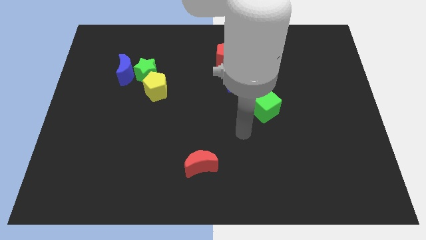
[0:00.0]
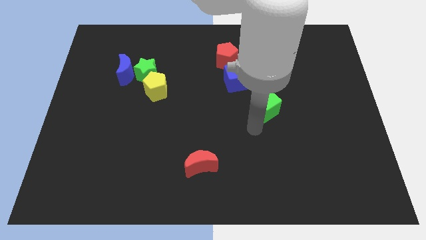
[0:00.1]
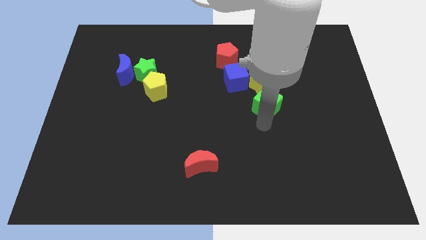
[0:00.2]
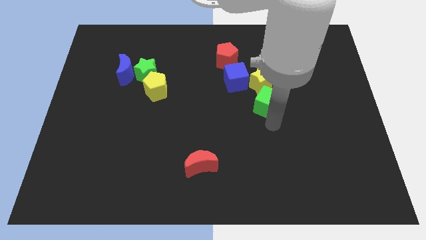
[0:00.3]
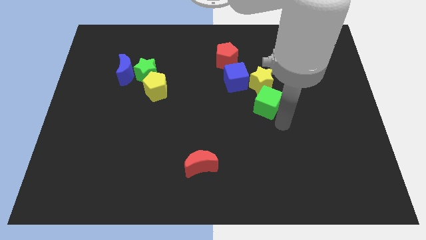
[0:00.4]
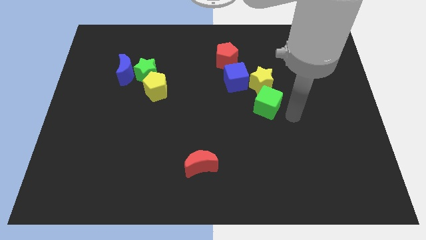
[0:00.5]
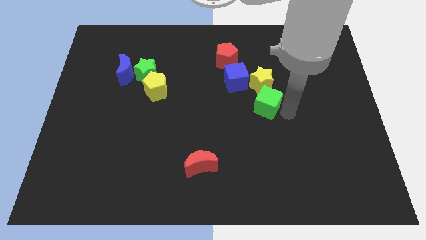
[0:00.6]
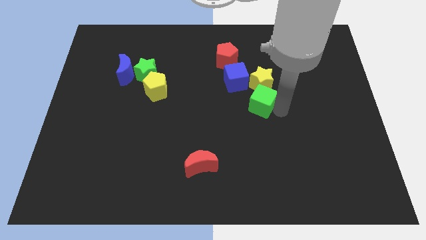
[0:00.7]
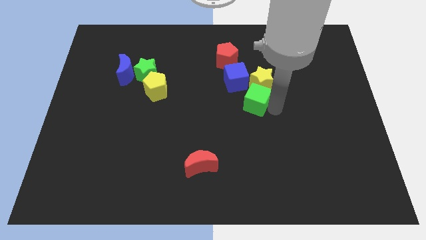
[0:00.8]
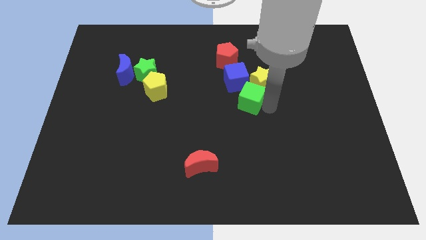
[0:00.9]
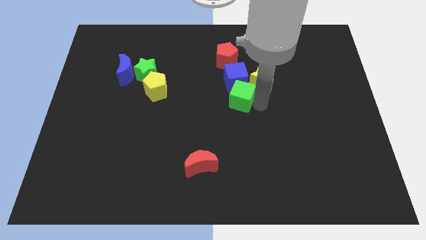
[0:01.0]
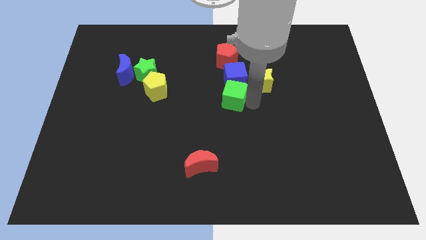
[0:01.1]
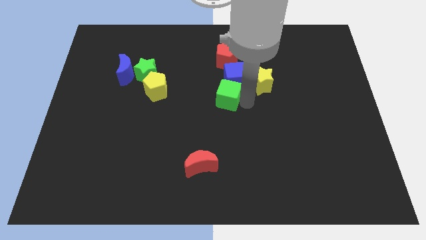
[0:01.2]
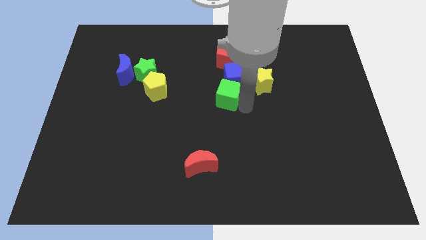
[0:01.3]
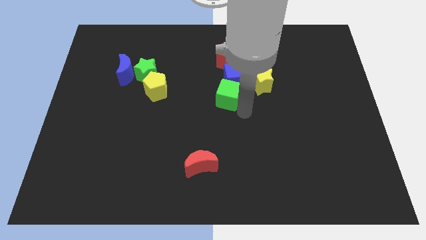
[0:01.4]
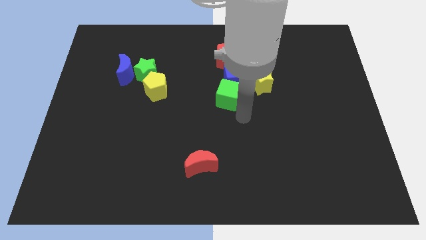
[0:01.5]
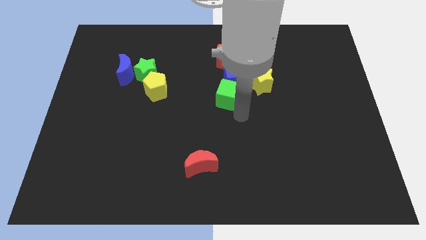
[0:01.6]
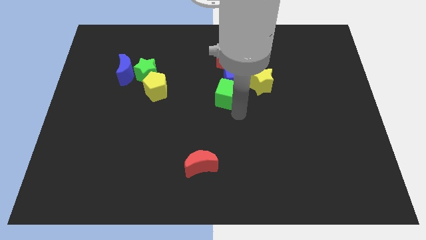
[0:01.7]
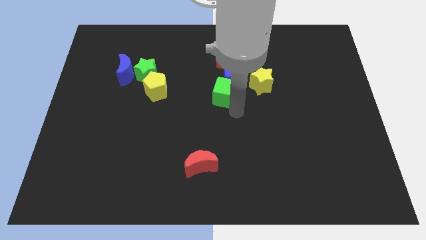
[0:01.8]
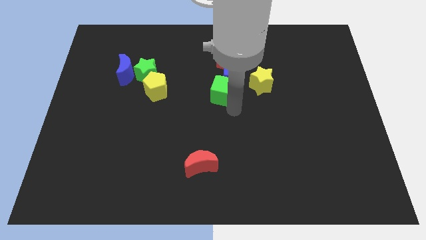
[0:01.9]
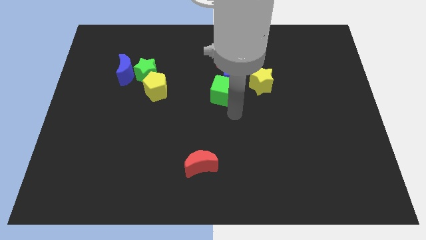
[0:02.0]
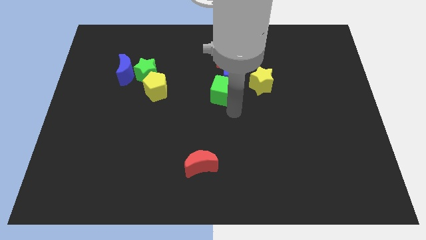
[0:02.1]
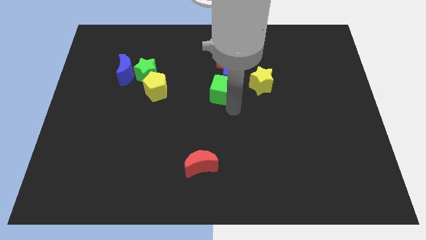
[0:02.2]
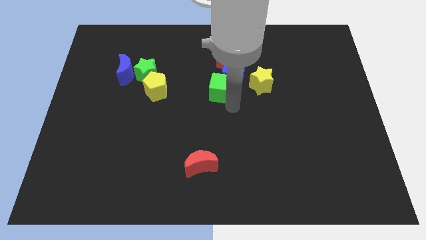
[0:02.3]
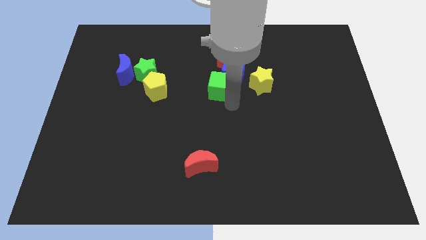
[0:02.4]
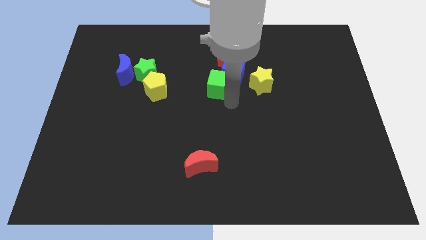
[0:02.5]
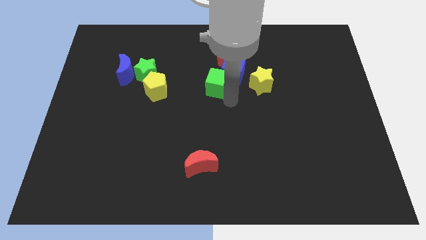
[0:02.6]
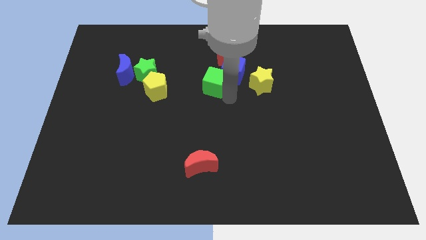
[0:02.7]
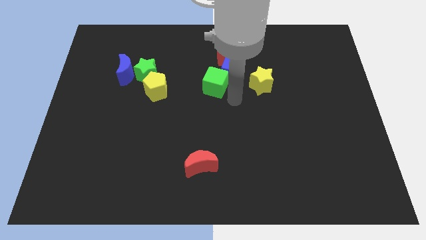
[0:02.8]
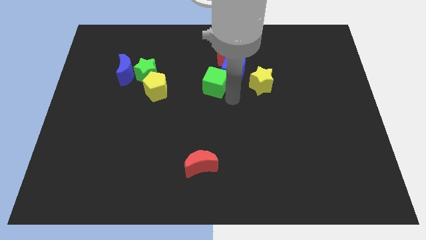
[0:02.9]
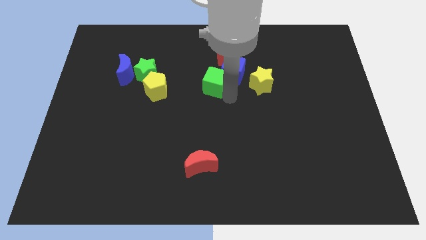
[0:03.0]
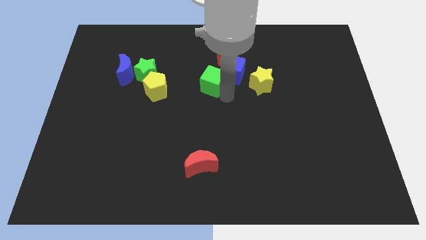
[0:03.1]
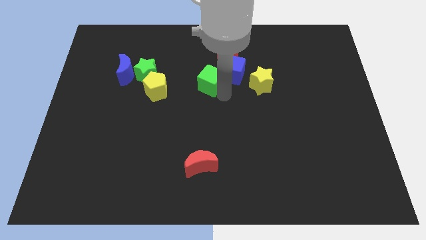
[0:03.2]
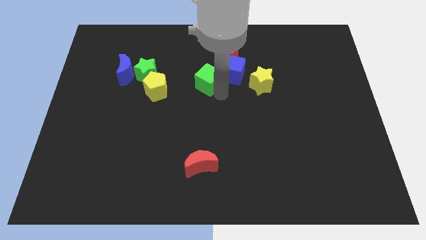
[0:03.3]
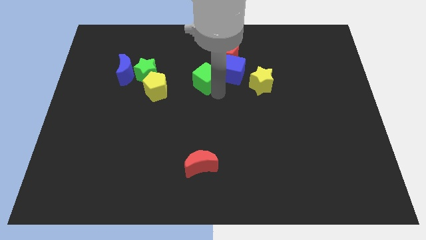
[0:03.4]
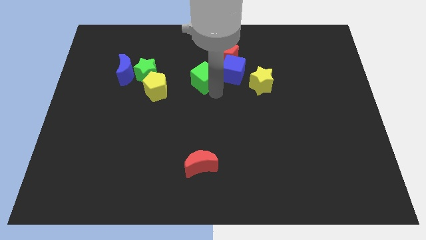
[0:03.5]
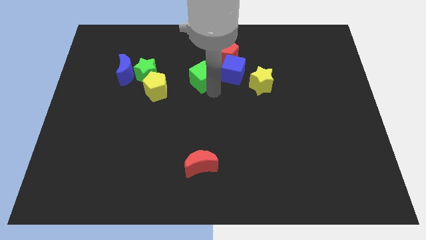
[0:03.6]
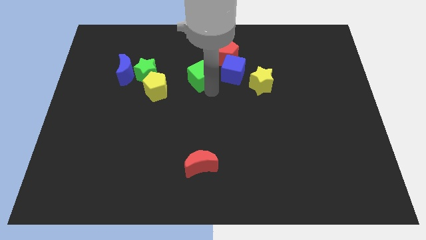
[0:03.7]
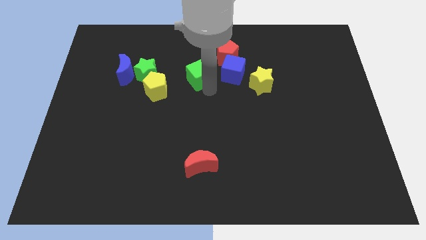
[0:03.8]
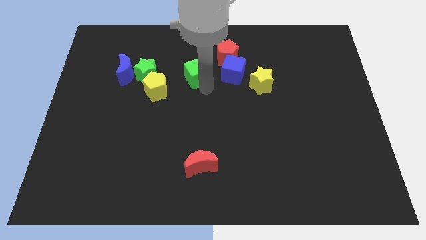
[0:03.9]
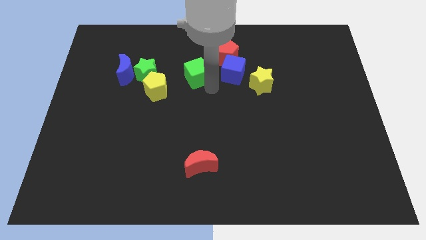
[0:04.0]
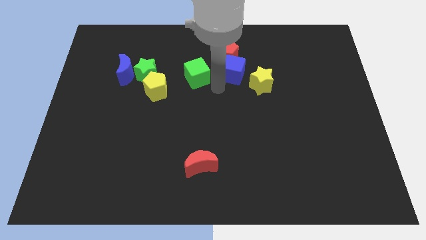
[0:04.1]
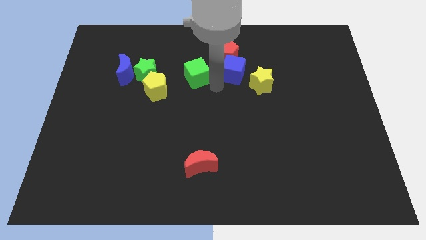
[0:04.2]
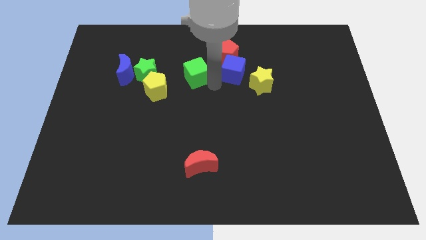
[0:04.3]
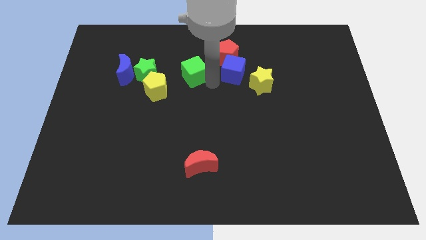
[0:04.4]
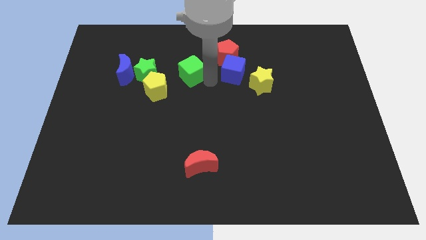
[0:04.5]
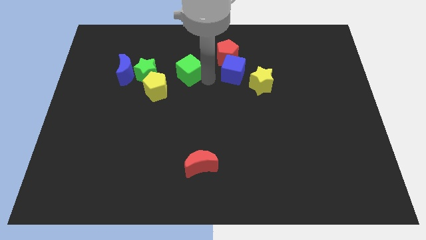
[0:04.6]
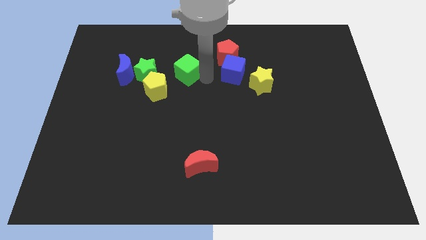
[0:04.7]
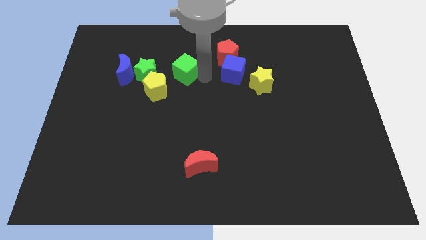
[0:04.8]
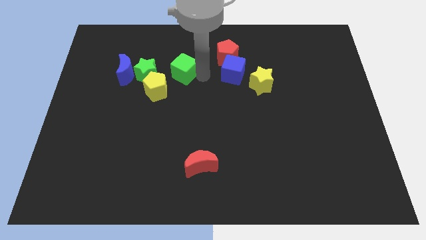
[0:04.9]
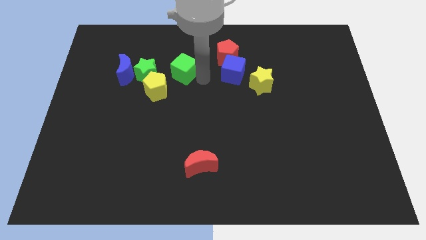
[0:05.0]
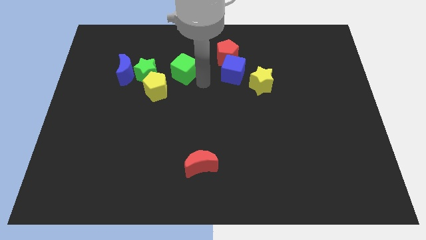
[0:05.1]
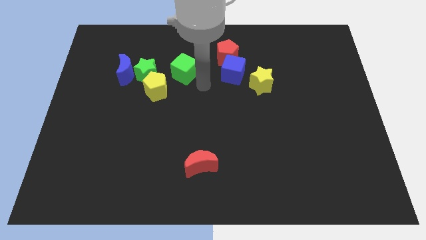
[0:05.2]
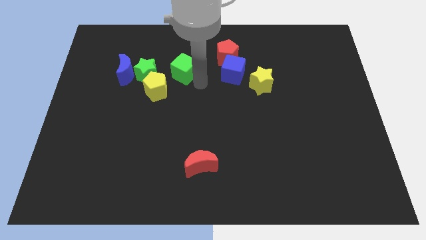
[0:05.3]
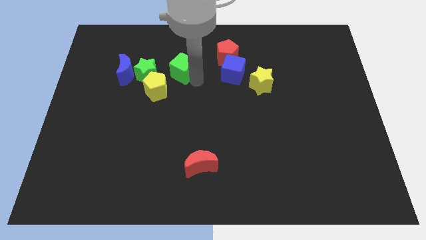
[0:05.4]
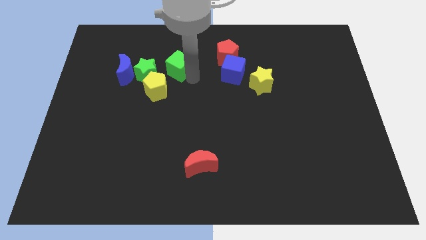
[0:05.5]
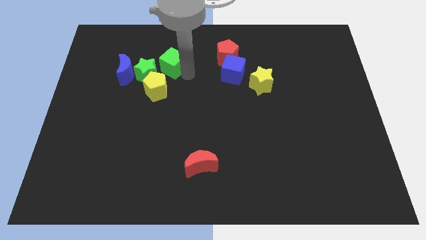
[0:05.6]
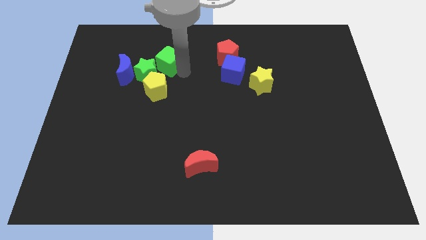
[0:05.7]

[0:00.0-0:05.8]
put the green cube close to the green star

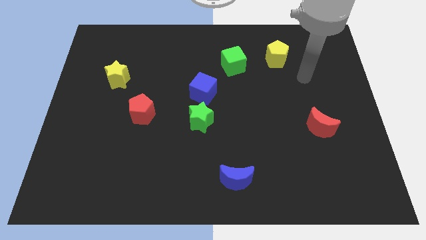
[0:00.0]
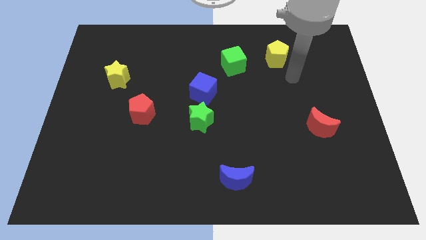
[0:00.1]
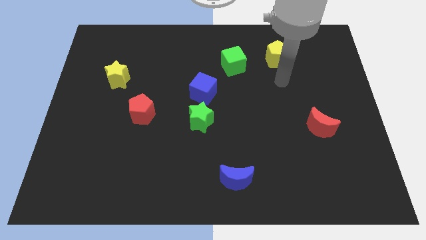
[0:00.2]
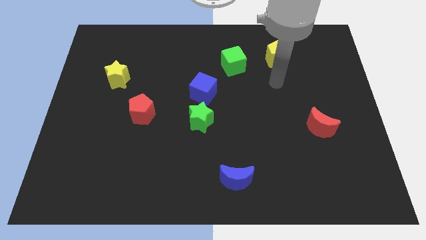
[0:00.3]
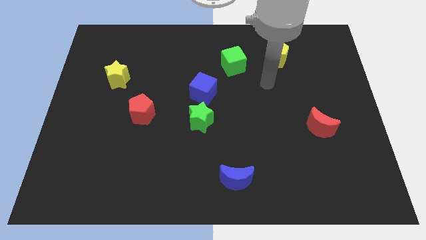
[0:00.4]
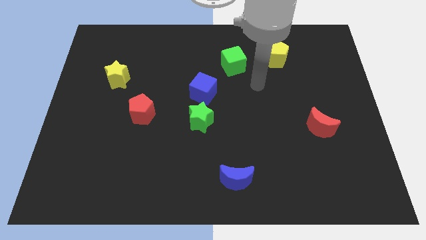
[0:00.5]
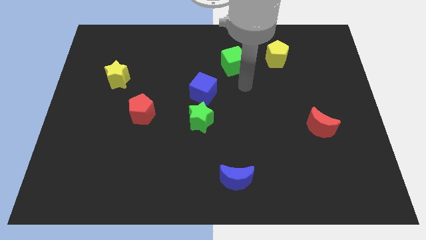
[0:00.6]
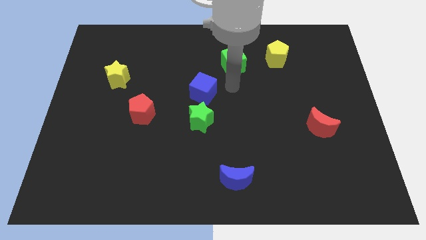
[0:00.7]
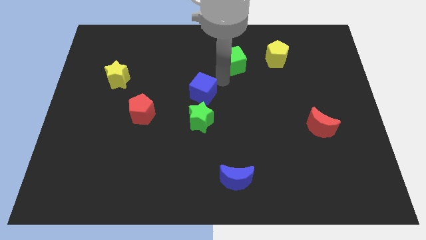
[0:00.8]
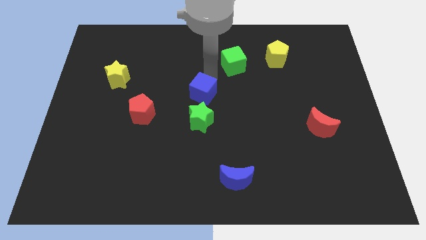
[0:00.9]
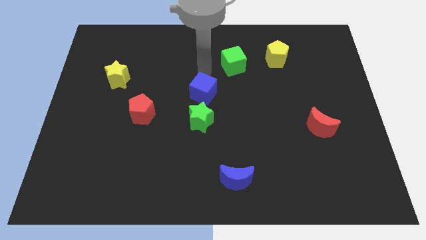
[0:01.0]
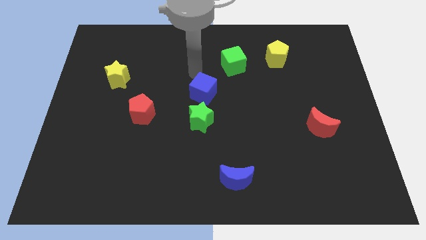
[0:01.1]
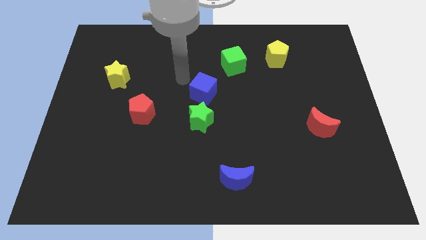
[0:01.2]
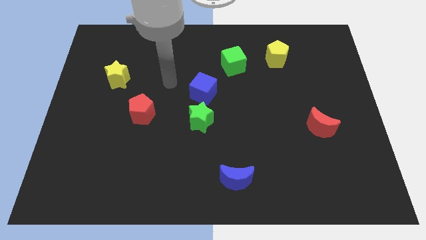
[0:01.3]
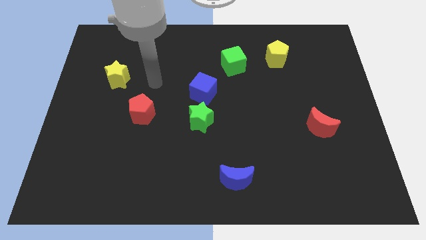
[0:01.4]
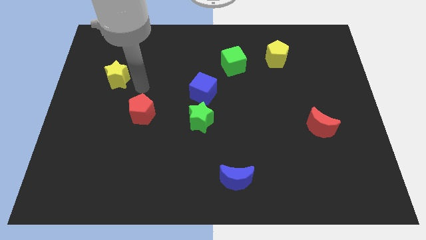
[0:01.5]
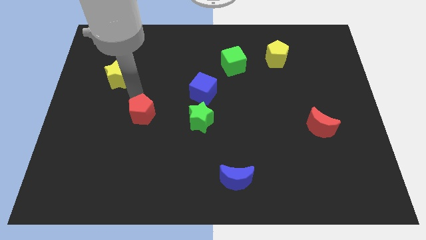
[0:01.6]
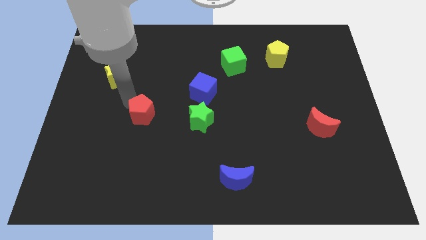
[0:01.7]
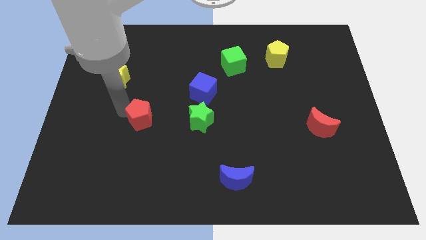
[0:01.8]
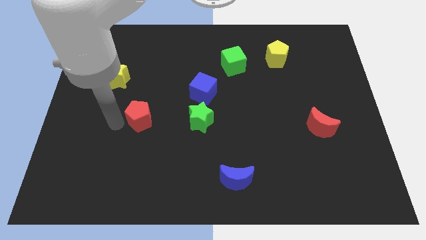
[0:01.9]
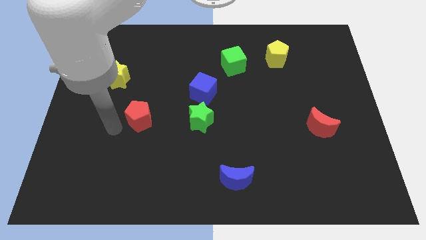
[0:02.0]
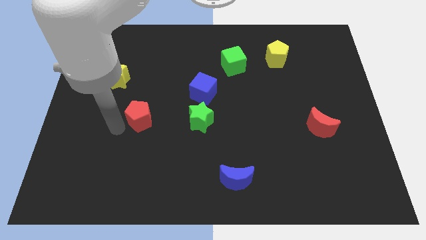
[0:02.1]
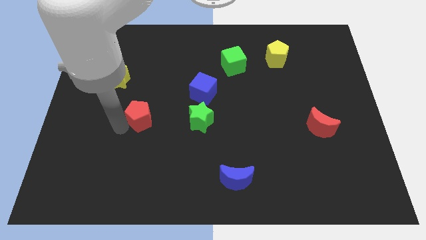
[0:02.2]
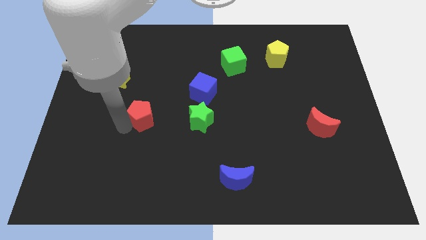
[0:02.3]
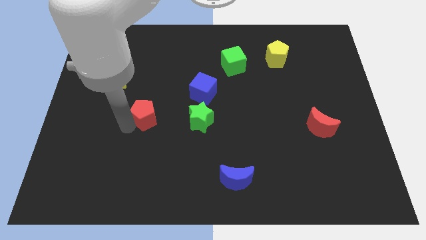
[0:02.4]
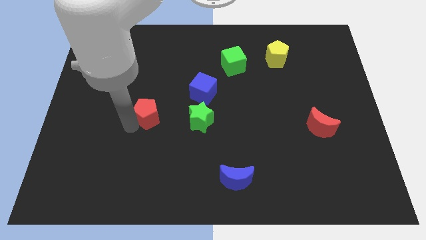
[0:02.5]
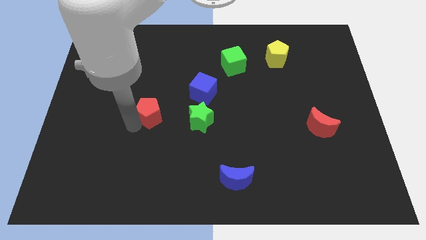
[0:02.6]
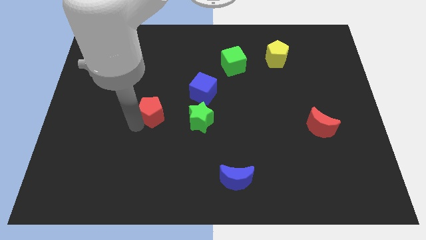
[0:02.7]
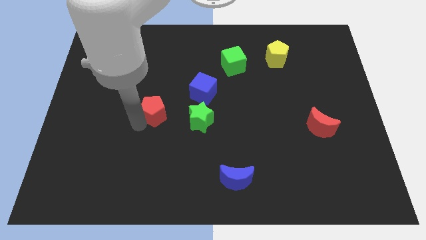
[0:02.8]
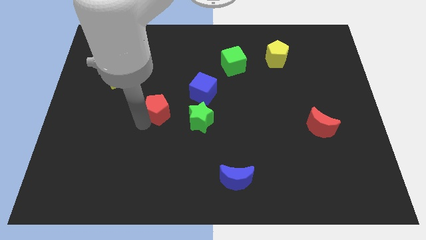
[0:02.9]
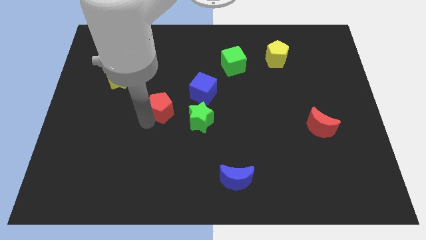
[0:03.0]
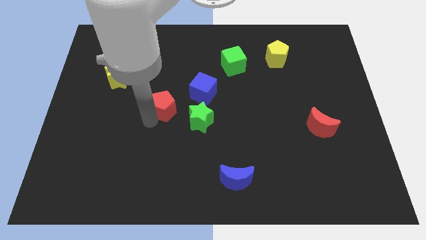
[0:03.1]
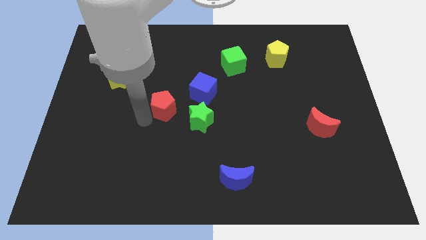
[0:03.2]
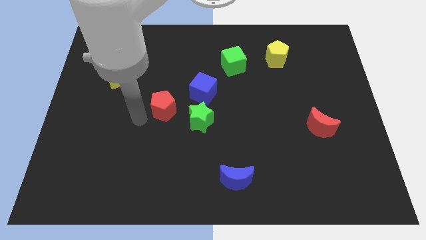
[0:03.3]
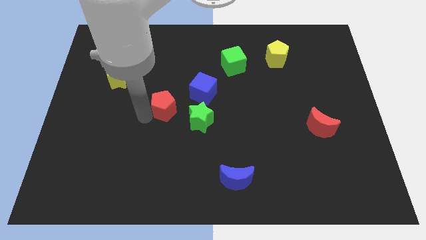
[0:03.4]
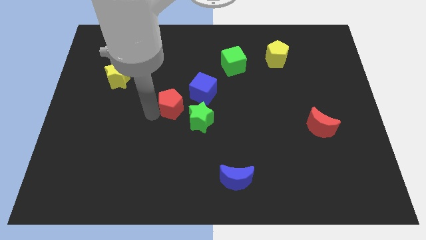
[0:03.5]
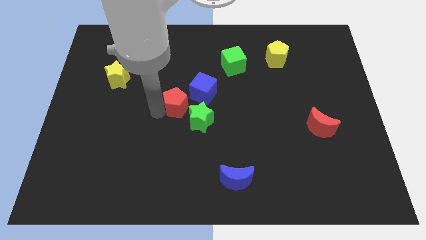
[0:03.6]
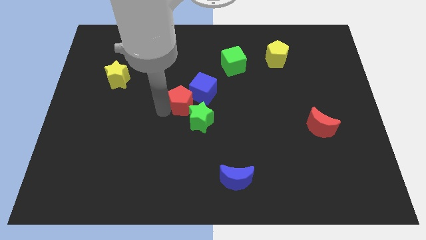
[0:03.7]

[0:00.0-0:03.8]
slide the red pentagon to the blue cube
